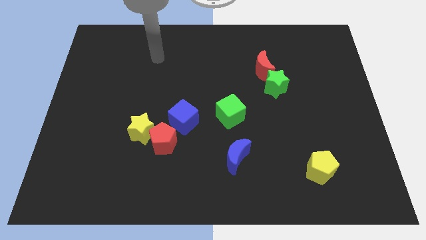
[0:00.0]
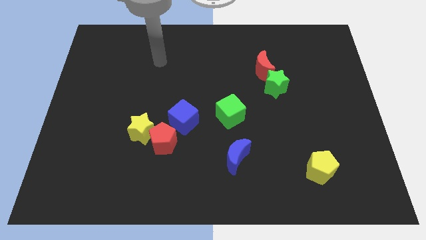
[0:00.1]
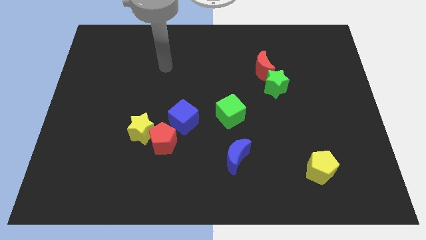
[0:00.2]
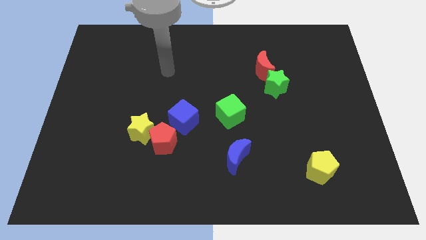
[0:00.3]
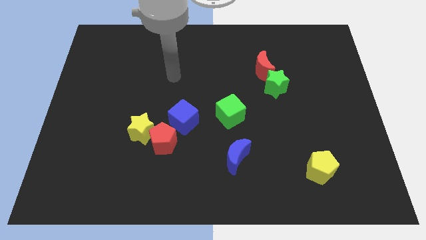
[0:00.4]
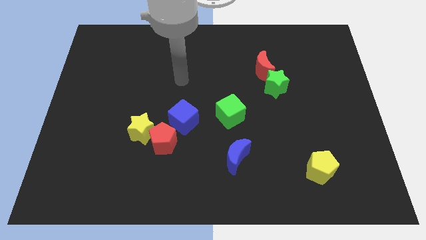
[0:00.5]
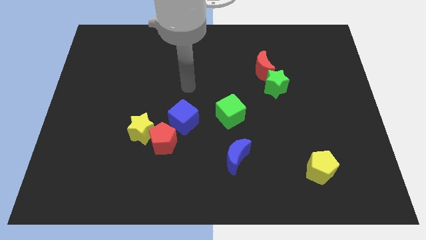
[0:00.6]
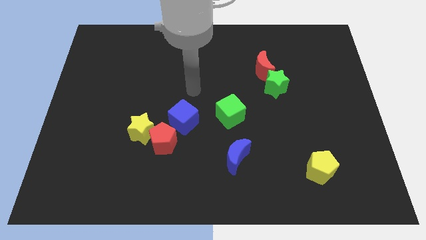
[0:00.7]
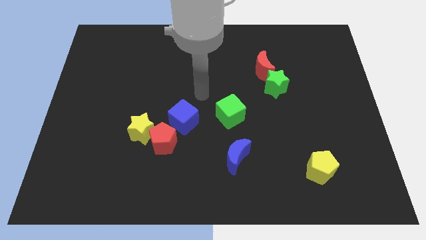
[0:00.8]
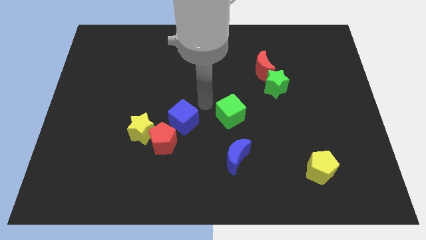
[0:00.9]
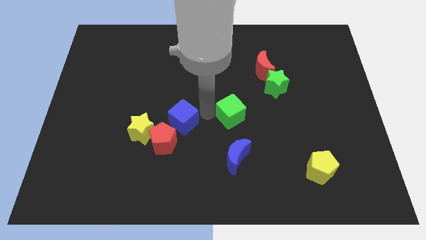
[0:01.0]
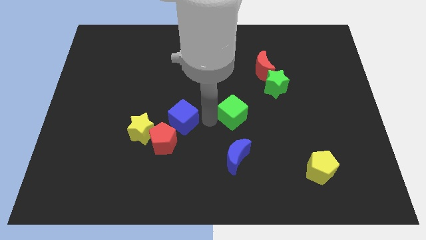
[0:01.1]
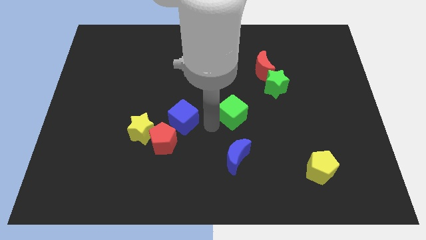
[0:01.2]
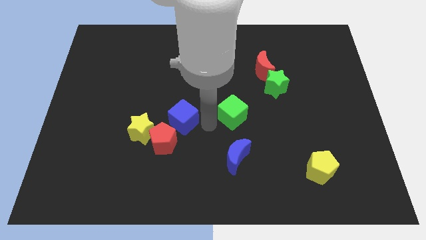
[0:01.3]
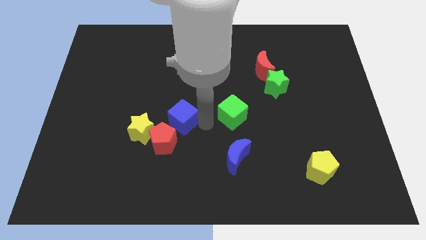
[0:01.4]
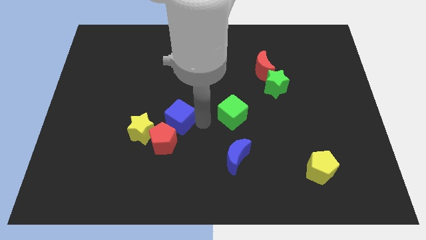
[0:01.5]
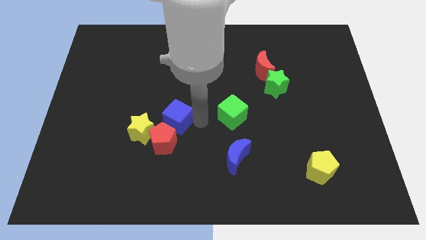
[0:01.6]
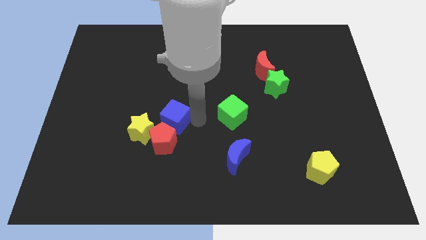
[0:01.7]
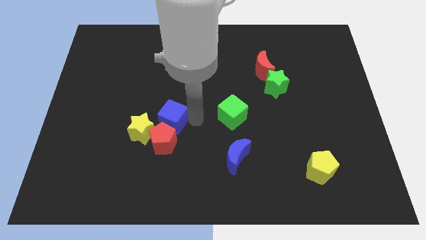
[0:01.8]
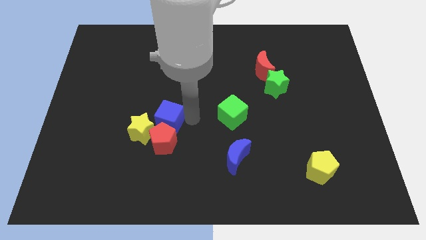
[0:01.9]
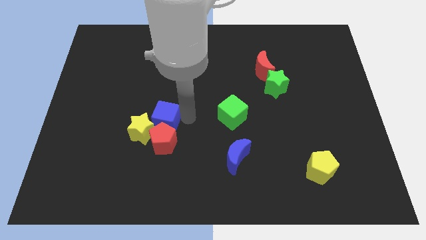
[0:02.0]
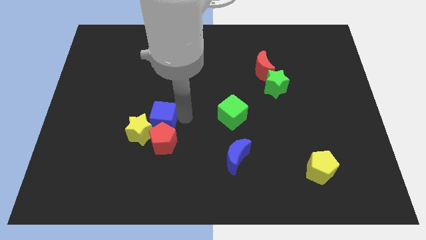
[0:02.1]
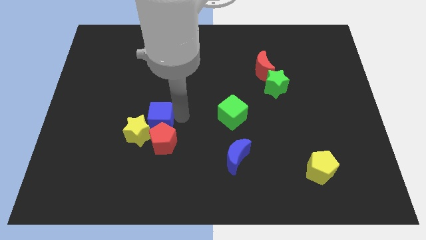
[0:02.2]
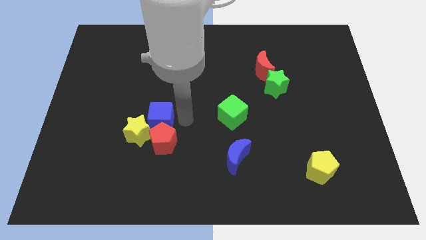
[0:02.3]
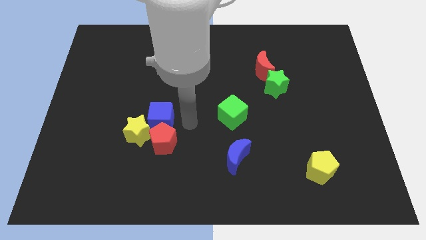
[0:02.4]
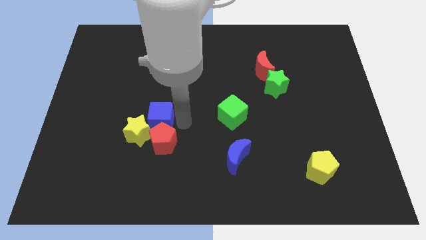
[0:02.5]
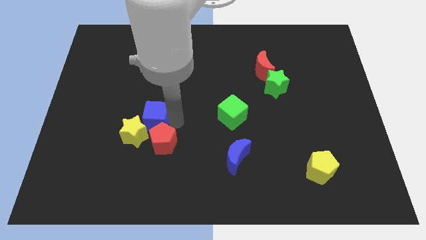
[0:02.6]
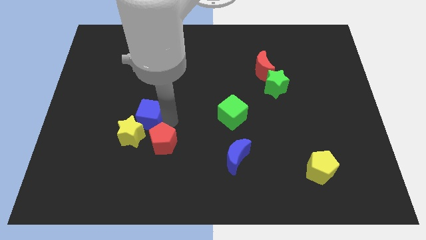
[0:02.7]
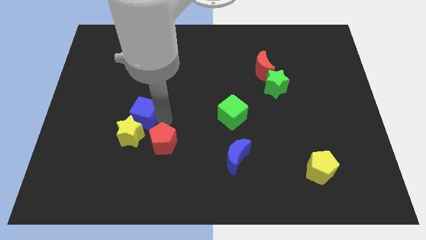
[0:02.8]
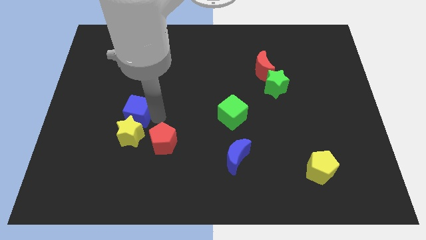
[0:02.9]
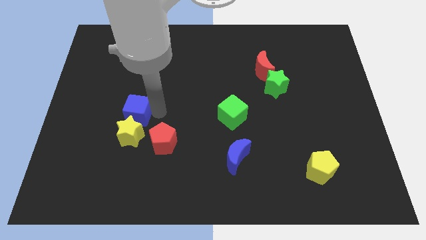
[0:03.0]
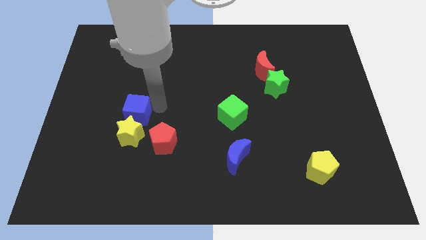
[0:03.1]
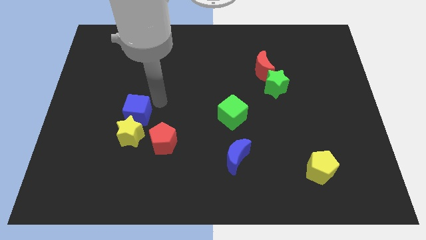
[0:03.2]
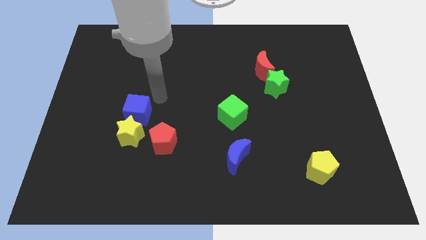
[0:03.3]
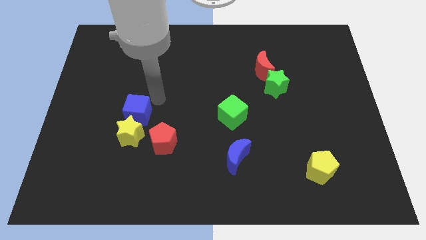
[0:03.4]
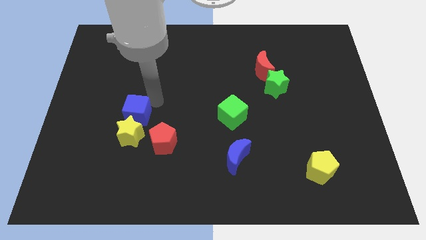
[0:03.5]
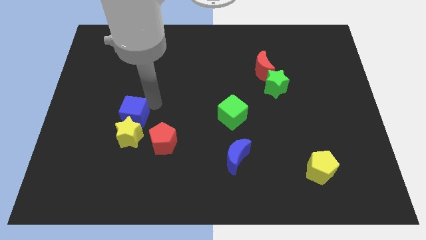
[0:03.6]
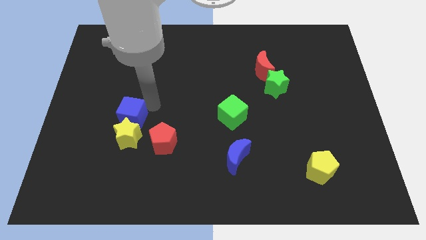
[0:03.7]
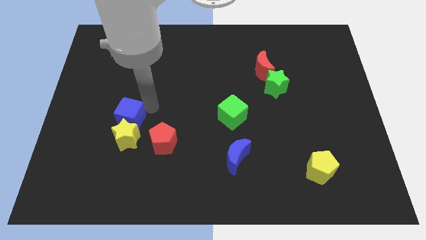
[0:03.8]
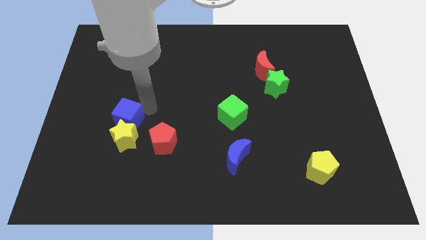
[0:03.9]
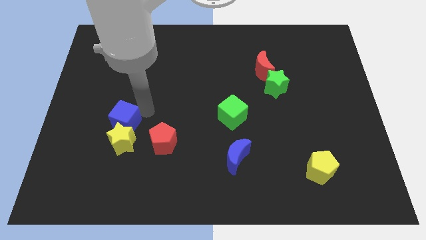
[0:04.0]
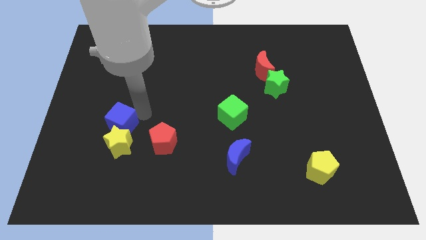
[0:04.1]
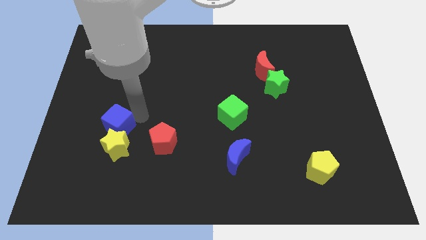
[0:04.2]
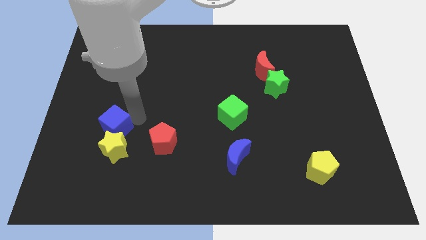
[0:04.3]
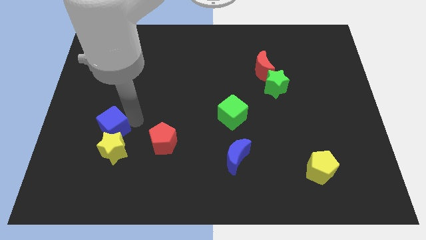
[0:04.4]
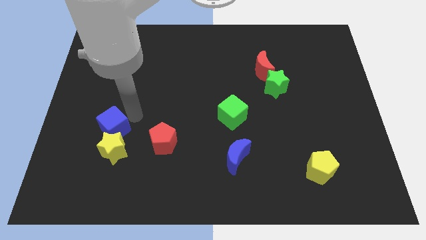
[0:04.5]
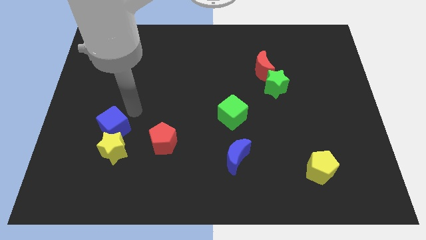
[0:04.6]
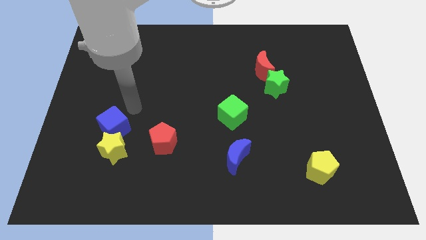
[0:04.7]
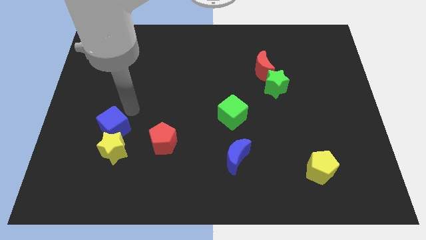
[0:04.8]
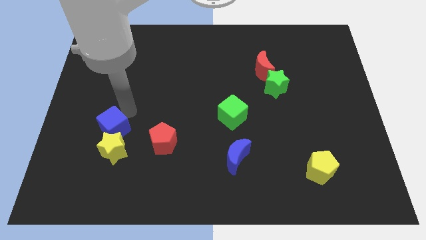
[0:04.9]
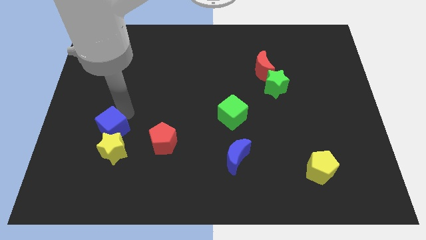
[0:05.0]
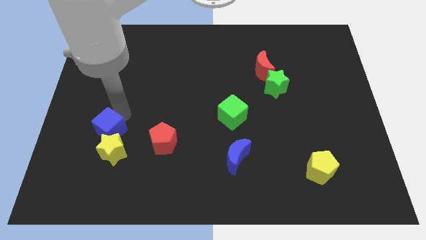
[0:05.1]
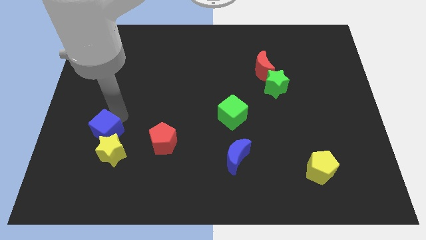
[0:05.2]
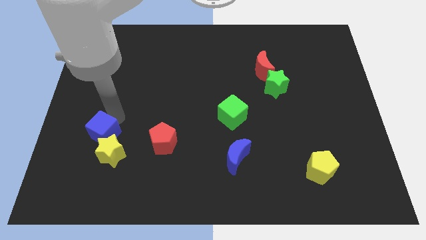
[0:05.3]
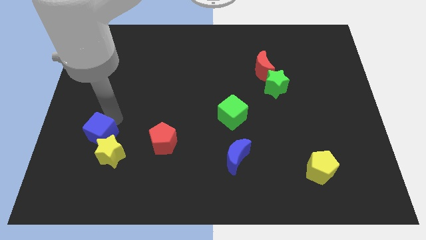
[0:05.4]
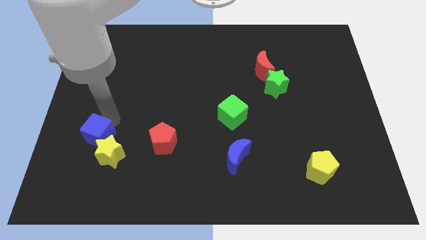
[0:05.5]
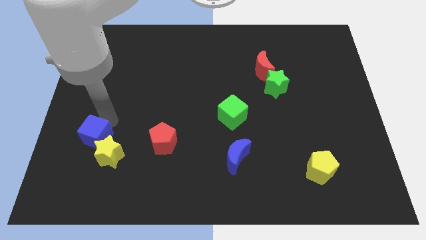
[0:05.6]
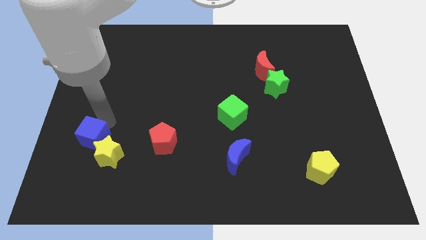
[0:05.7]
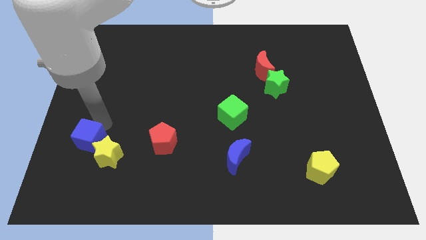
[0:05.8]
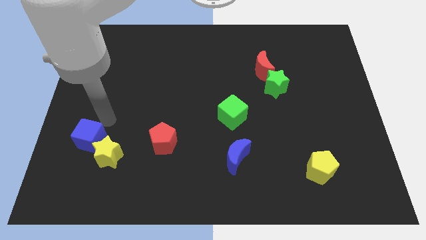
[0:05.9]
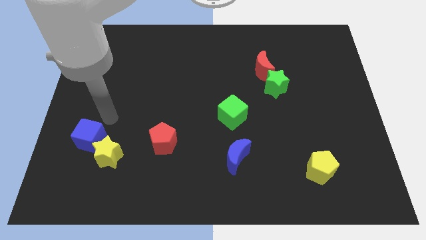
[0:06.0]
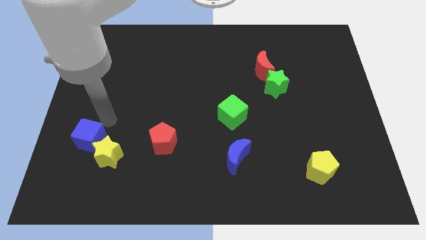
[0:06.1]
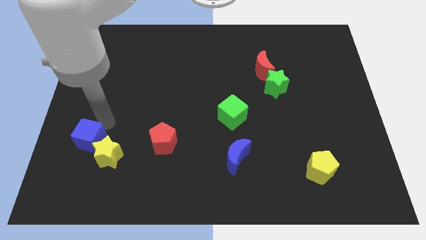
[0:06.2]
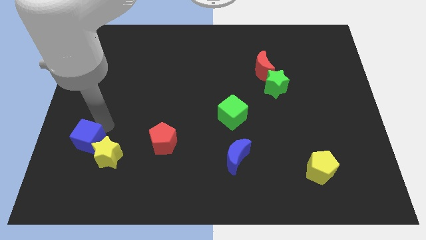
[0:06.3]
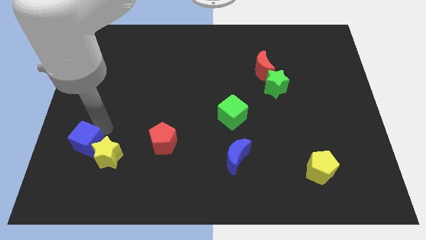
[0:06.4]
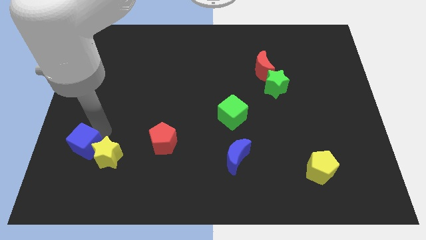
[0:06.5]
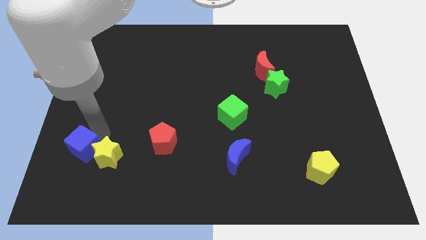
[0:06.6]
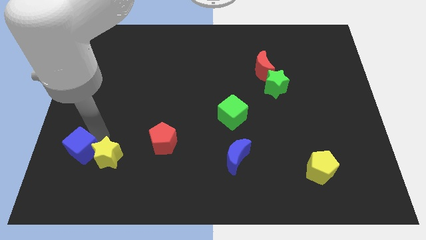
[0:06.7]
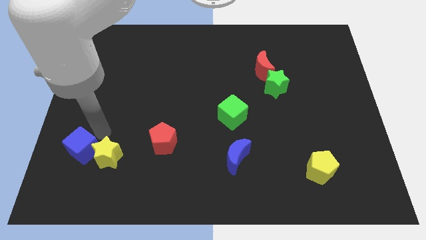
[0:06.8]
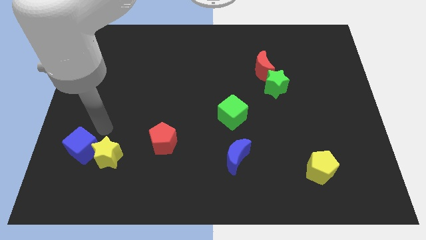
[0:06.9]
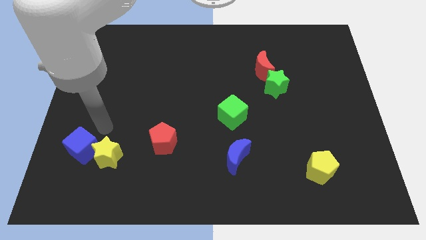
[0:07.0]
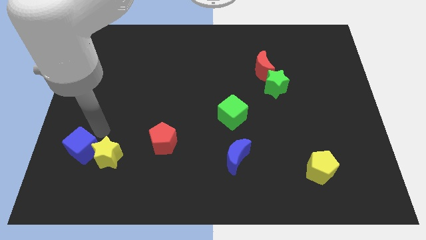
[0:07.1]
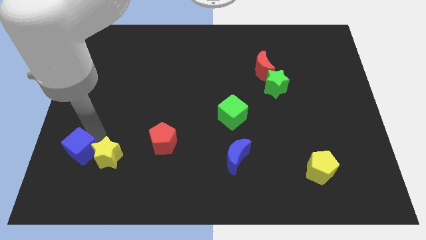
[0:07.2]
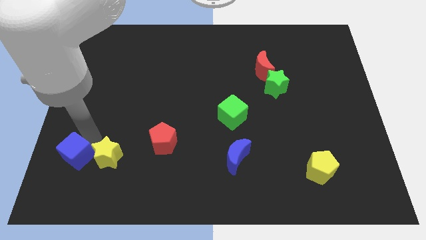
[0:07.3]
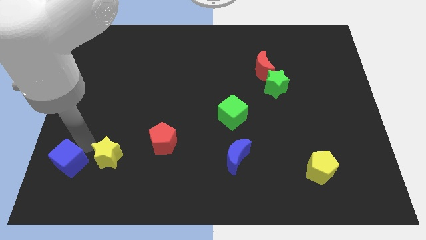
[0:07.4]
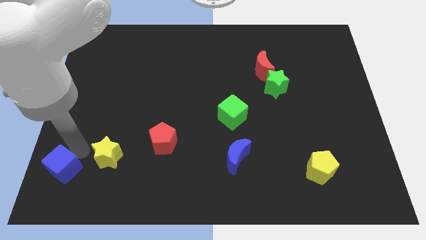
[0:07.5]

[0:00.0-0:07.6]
push the blue cube to the bottom left of the board
